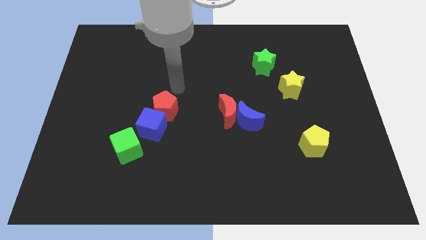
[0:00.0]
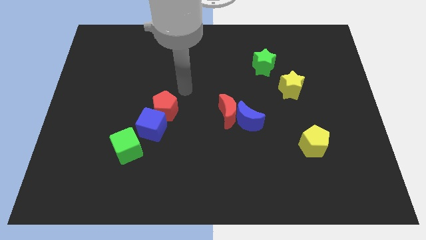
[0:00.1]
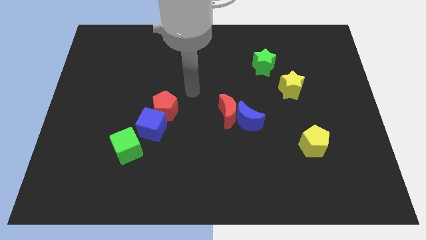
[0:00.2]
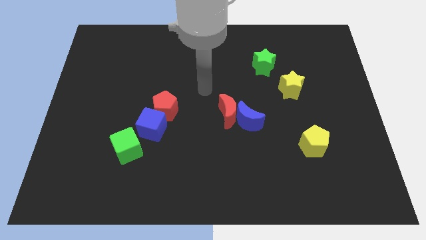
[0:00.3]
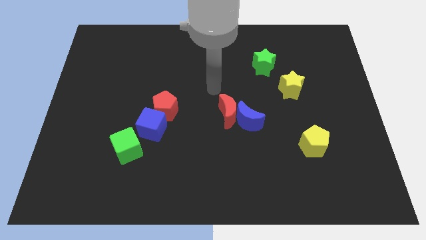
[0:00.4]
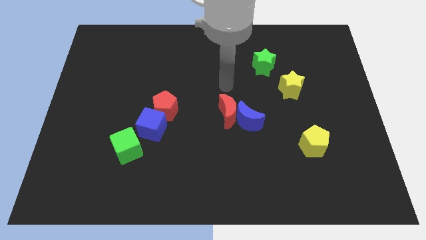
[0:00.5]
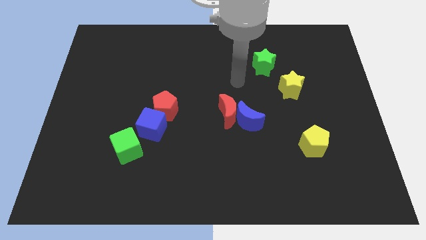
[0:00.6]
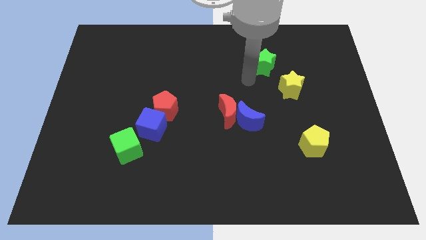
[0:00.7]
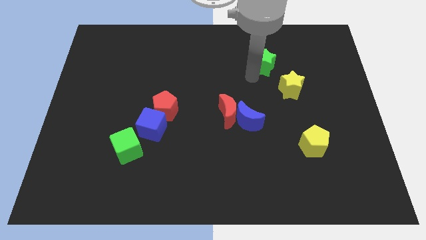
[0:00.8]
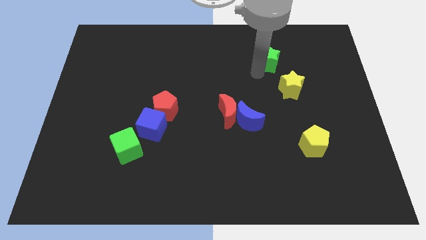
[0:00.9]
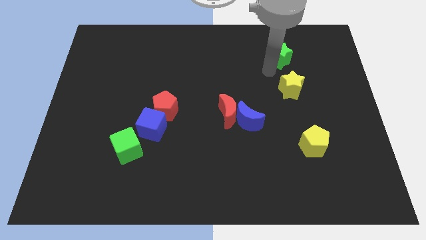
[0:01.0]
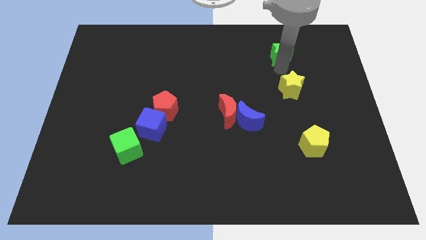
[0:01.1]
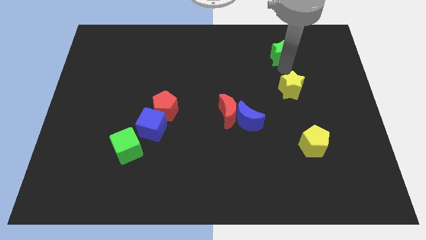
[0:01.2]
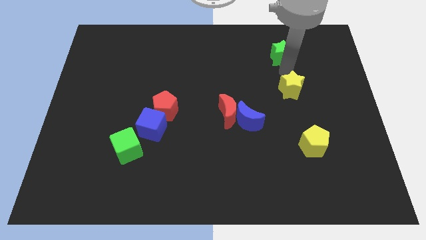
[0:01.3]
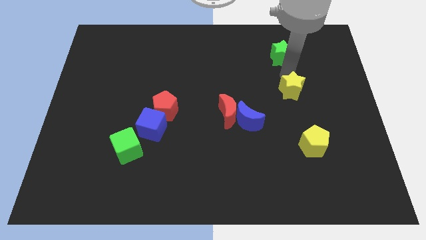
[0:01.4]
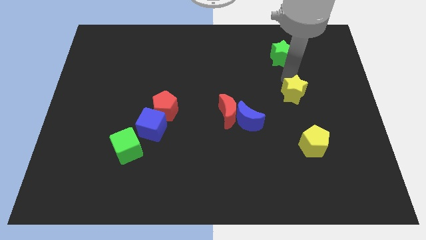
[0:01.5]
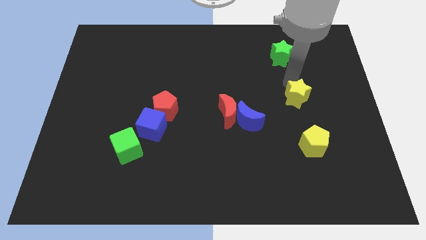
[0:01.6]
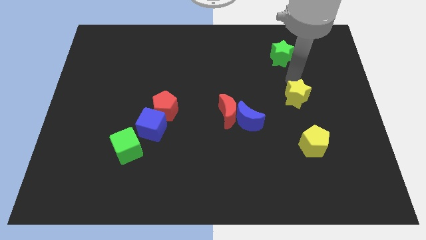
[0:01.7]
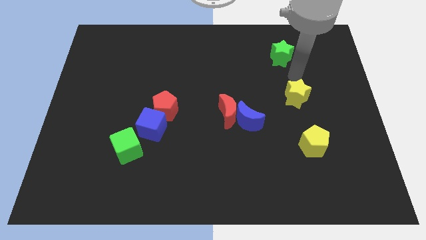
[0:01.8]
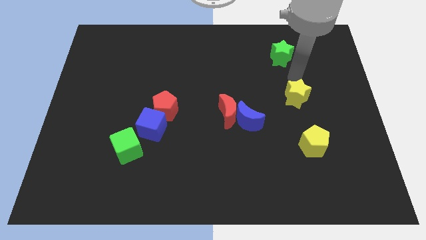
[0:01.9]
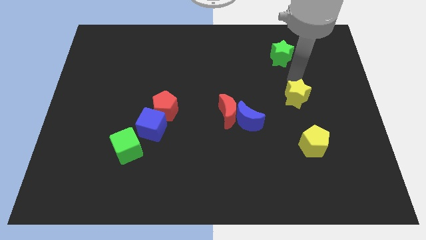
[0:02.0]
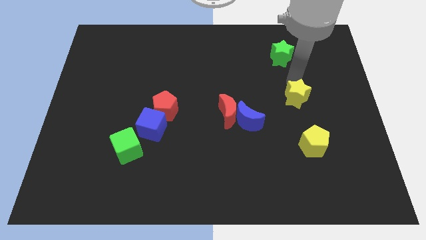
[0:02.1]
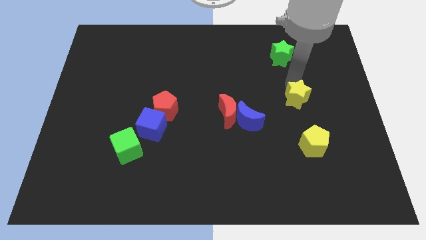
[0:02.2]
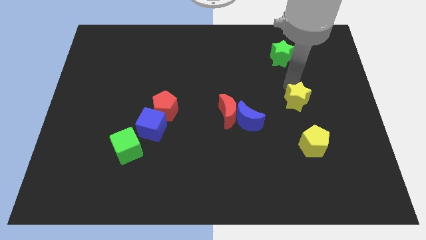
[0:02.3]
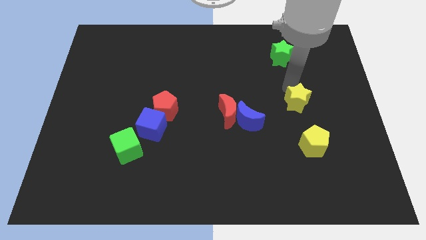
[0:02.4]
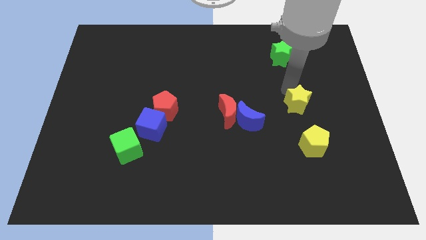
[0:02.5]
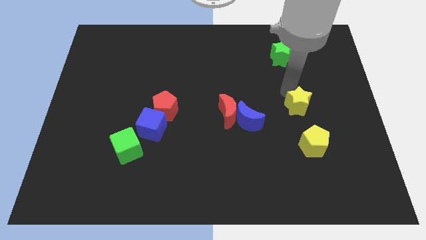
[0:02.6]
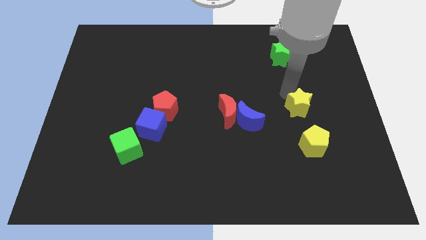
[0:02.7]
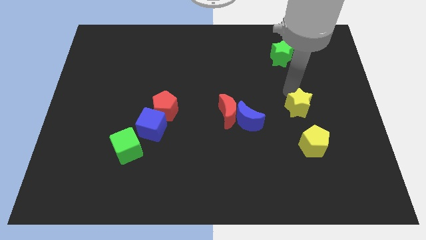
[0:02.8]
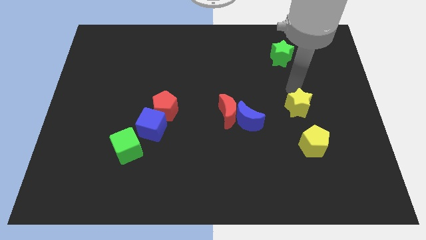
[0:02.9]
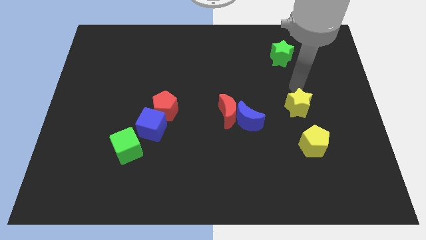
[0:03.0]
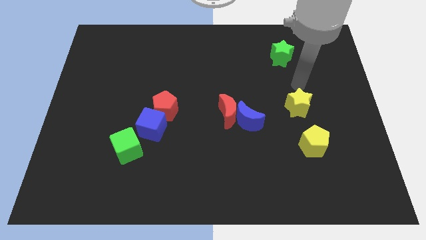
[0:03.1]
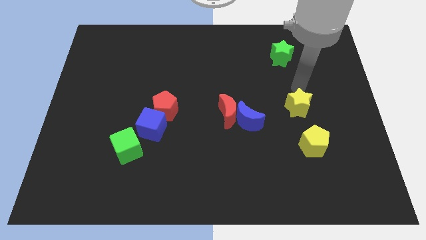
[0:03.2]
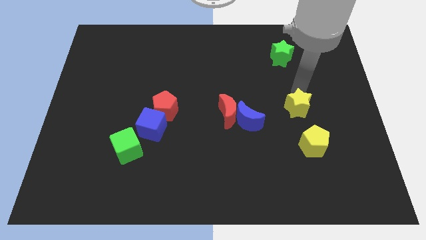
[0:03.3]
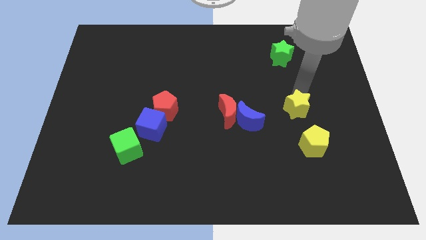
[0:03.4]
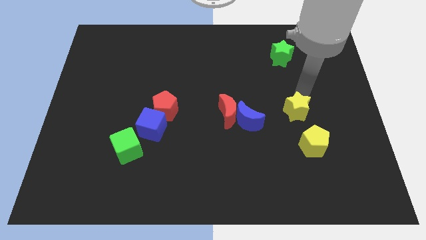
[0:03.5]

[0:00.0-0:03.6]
move the yellow star down slightly

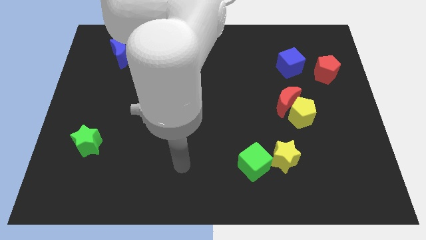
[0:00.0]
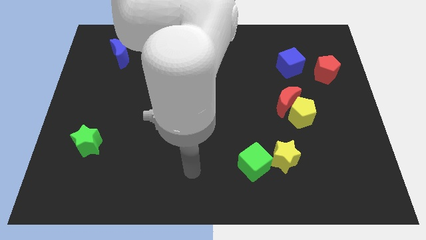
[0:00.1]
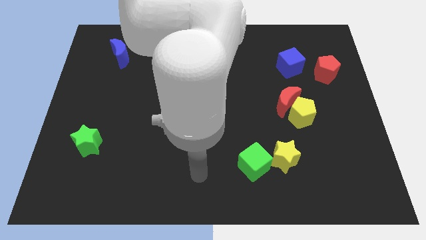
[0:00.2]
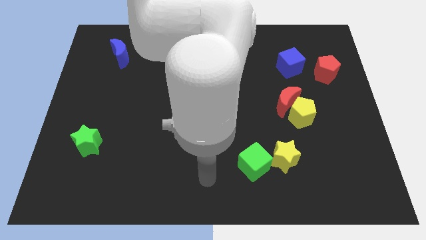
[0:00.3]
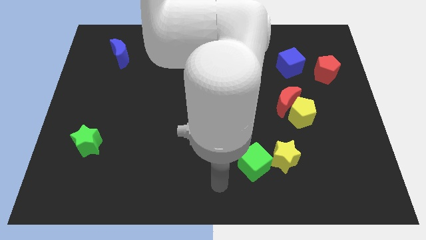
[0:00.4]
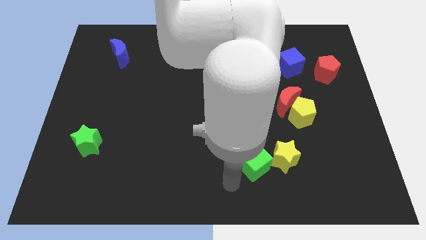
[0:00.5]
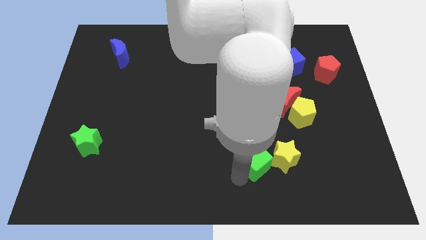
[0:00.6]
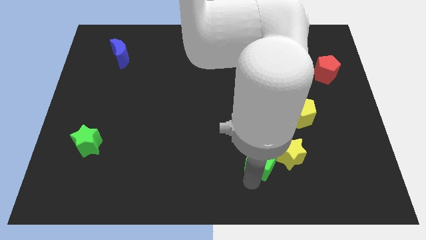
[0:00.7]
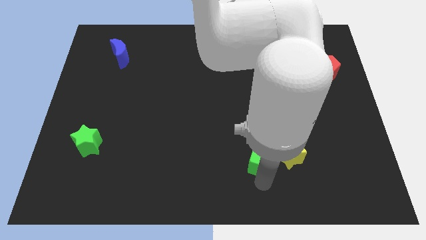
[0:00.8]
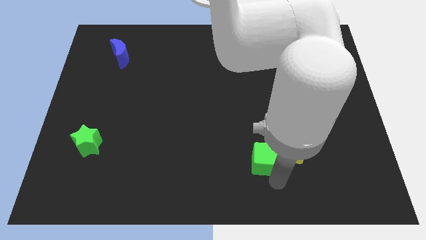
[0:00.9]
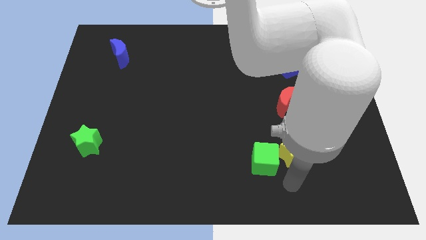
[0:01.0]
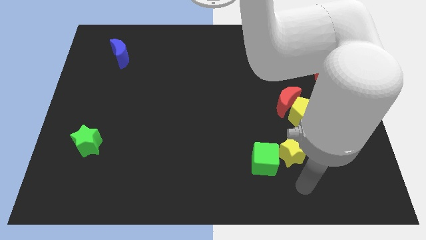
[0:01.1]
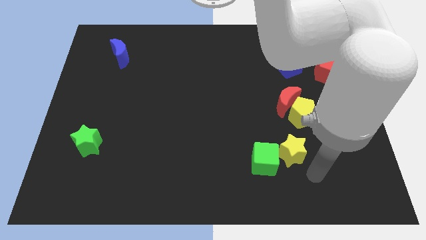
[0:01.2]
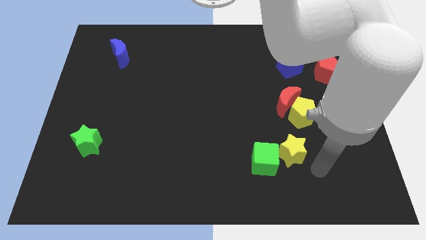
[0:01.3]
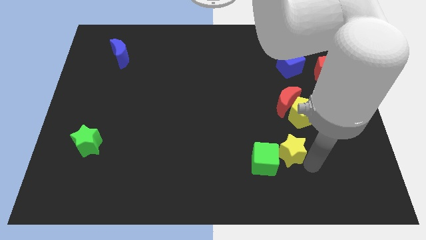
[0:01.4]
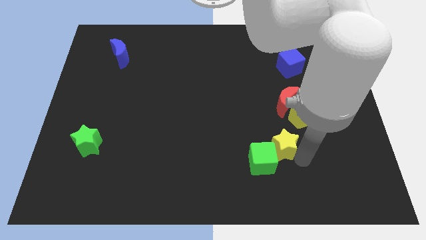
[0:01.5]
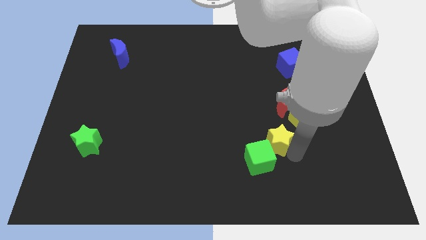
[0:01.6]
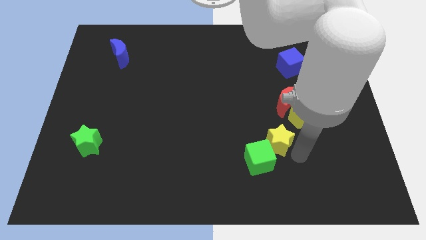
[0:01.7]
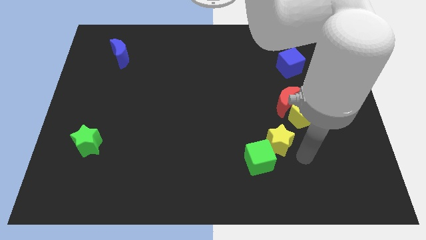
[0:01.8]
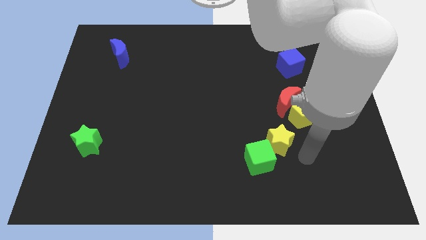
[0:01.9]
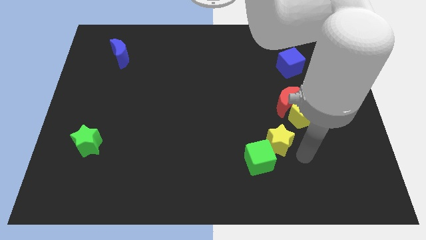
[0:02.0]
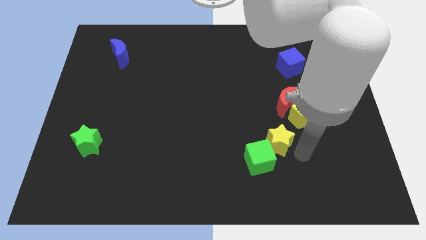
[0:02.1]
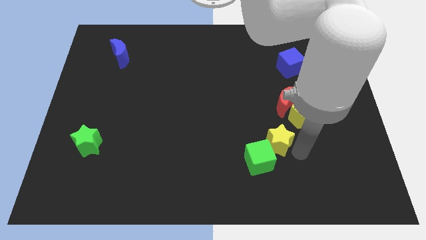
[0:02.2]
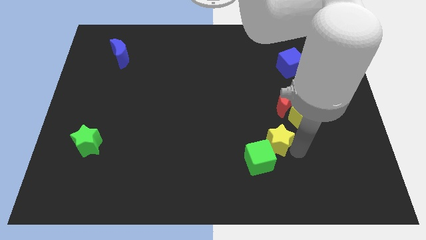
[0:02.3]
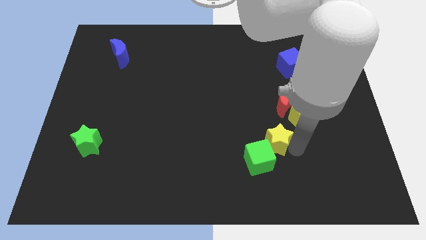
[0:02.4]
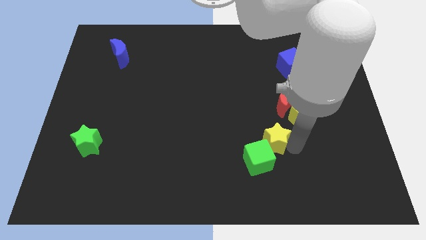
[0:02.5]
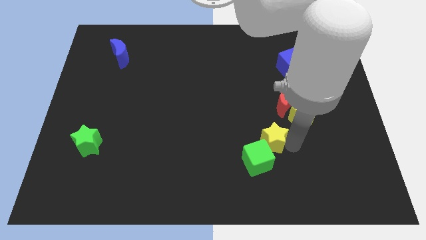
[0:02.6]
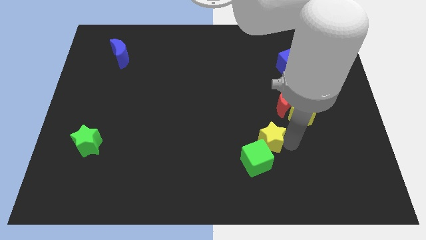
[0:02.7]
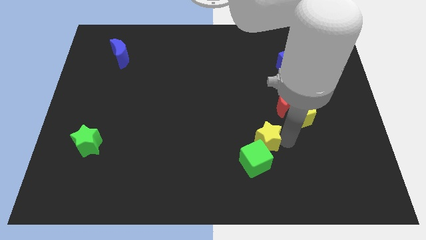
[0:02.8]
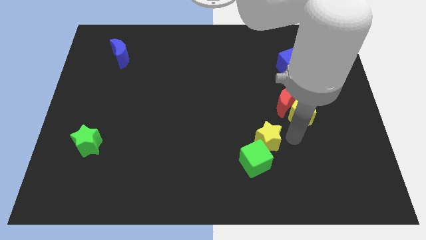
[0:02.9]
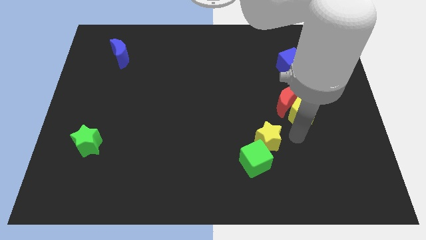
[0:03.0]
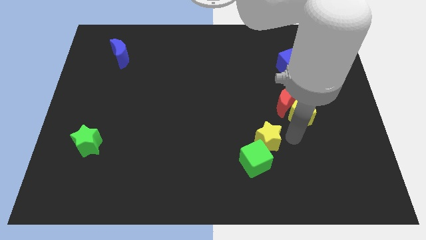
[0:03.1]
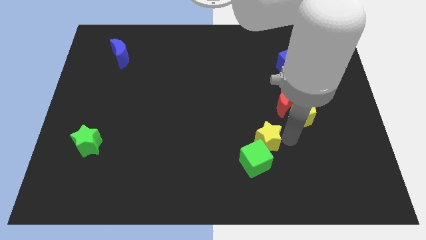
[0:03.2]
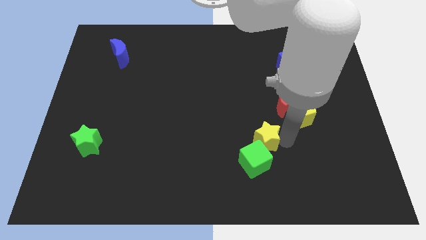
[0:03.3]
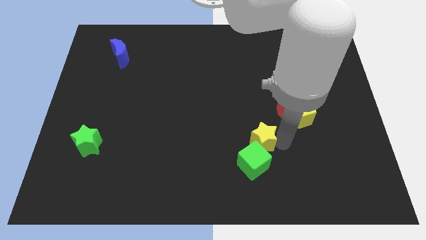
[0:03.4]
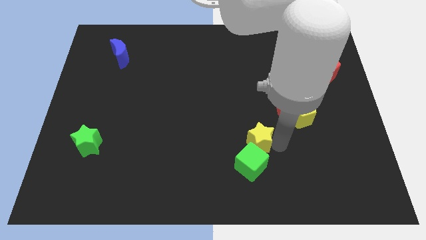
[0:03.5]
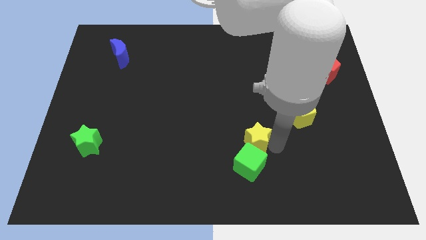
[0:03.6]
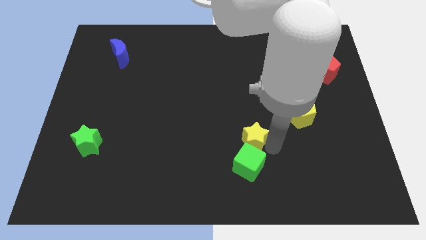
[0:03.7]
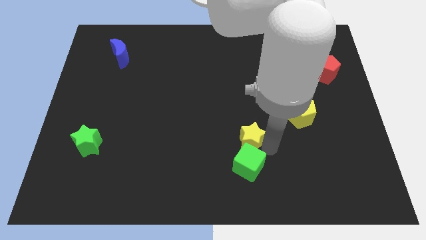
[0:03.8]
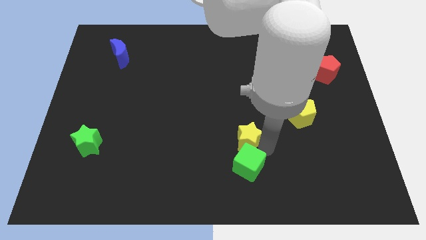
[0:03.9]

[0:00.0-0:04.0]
slightly move the yellow star left

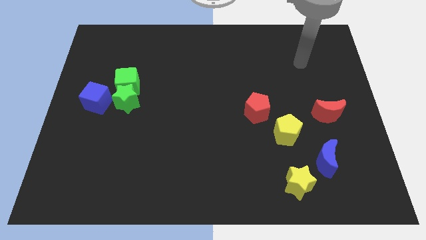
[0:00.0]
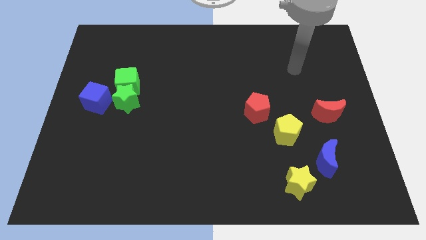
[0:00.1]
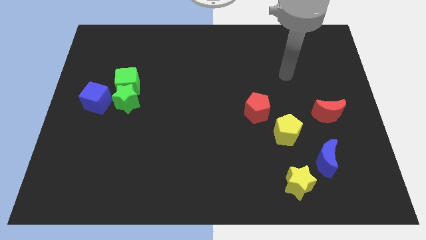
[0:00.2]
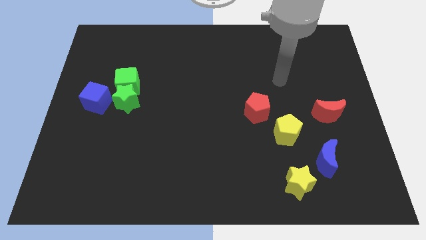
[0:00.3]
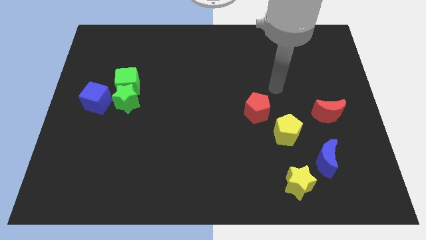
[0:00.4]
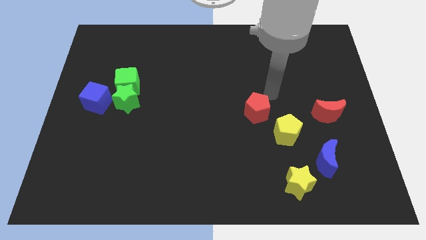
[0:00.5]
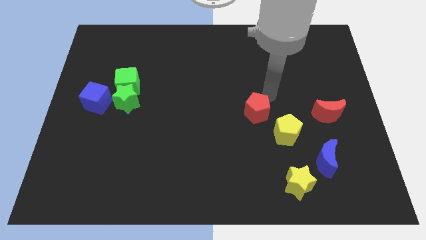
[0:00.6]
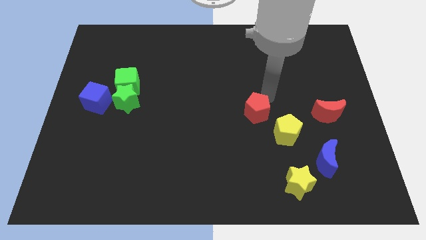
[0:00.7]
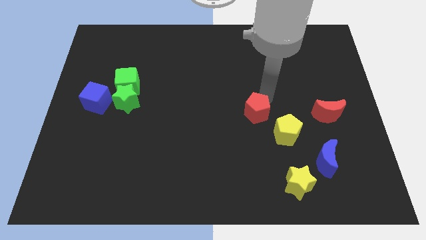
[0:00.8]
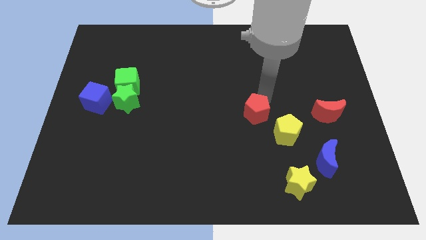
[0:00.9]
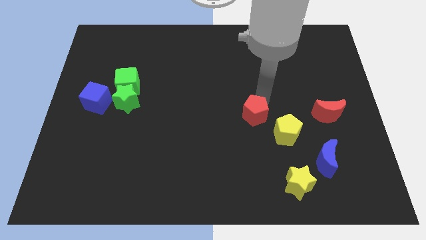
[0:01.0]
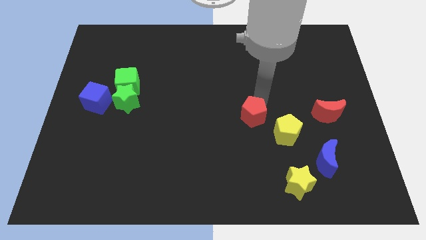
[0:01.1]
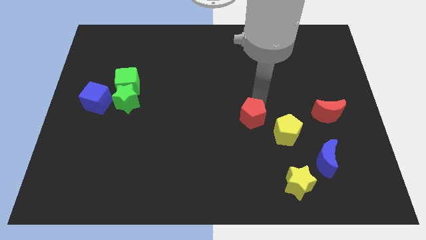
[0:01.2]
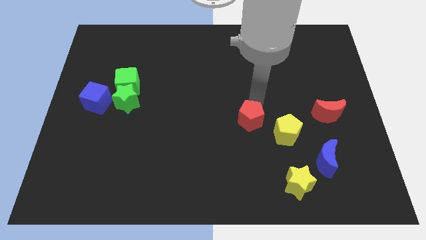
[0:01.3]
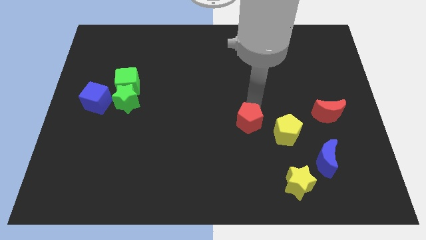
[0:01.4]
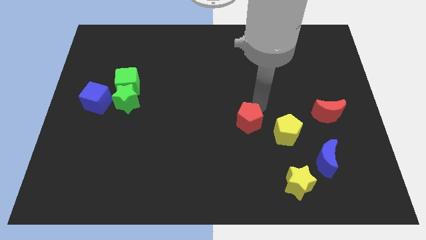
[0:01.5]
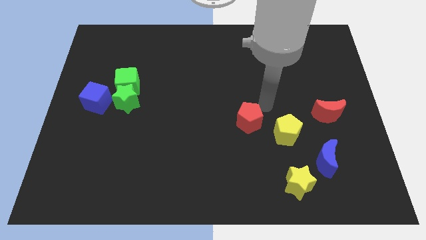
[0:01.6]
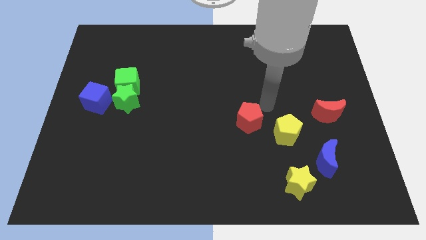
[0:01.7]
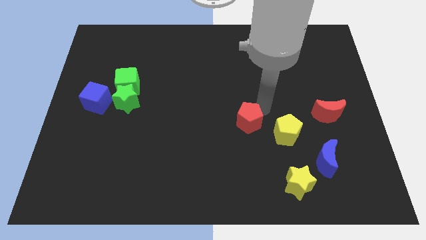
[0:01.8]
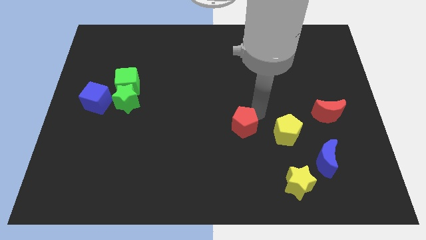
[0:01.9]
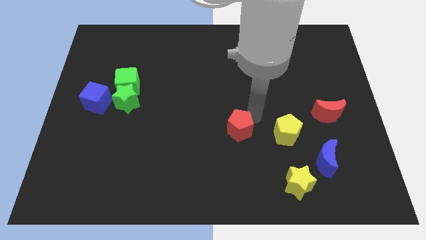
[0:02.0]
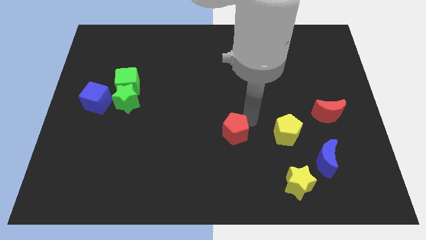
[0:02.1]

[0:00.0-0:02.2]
slightly push the red pentagon down and then left
